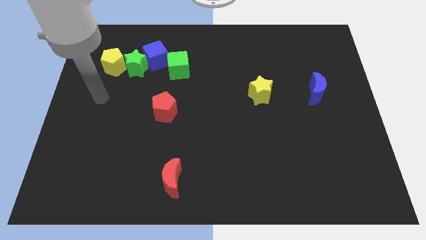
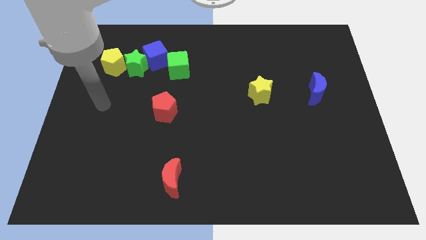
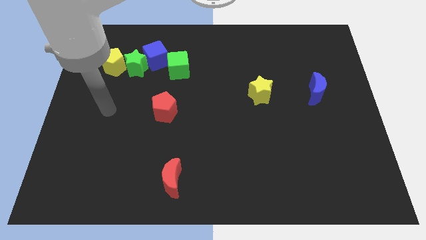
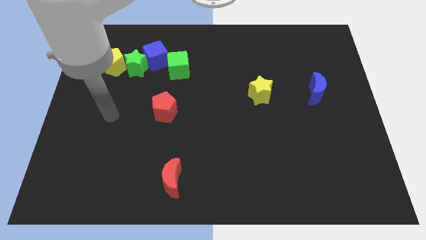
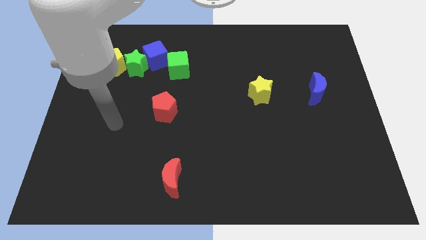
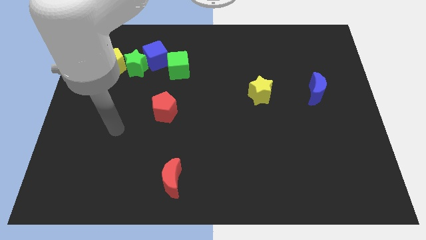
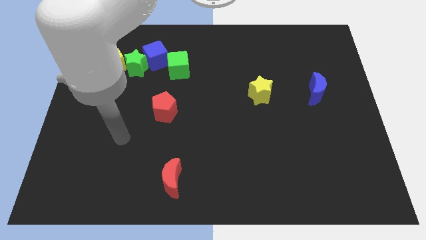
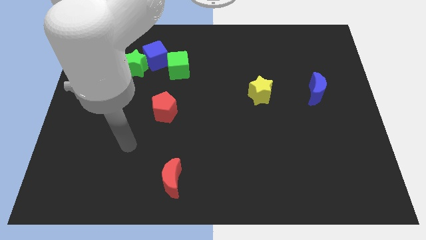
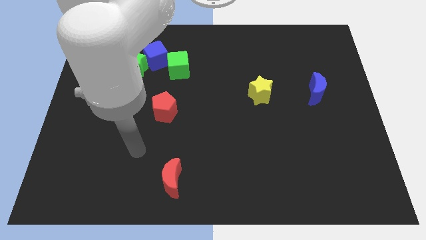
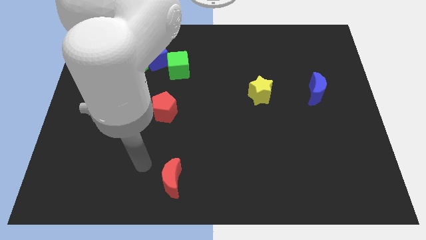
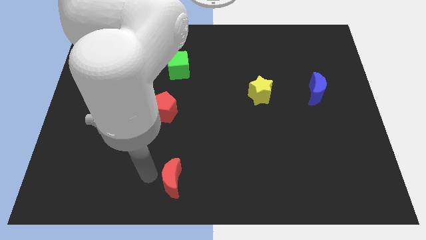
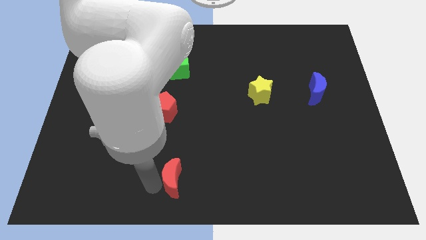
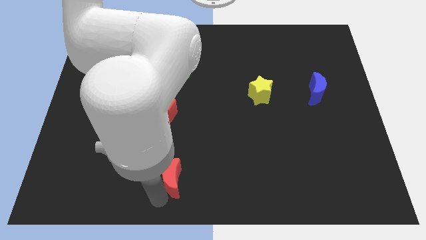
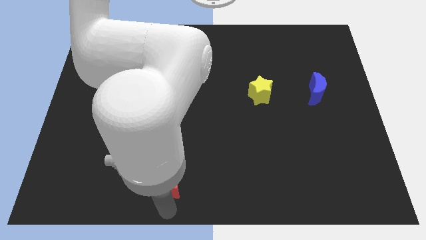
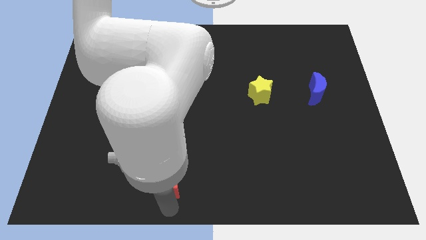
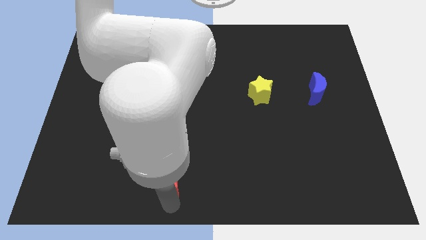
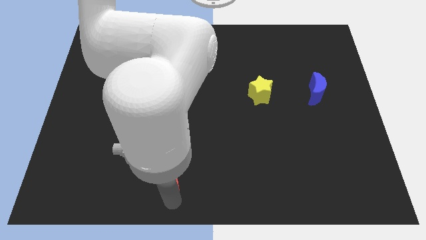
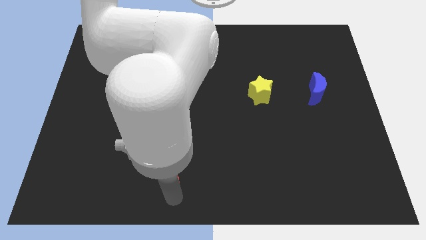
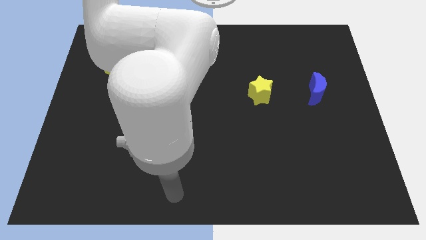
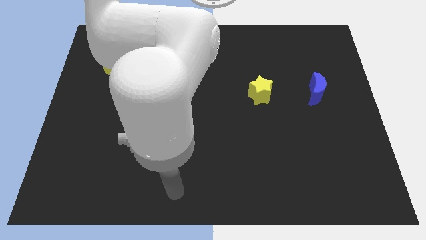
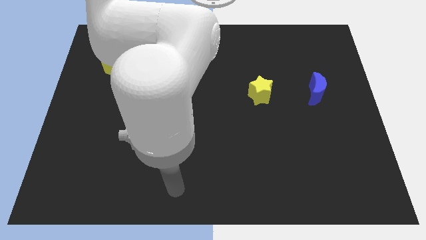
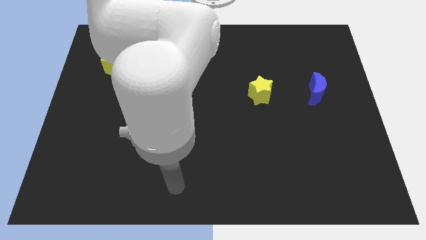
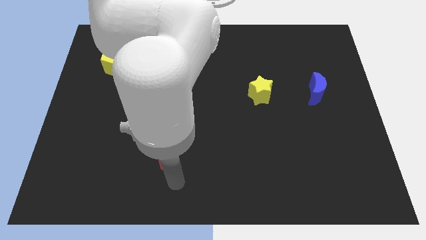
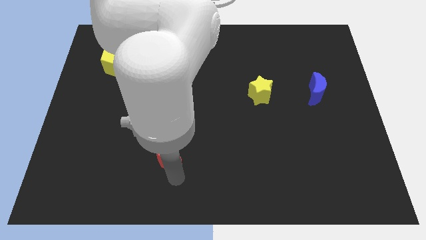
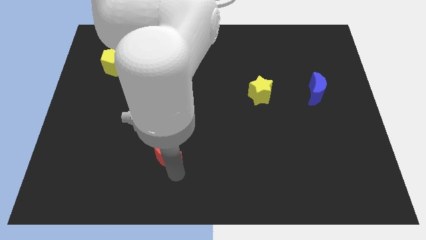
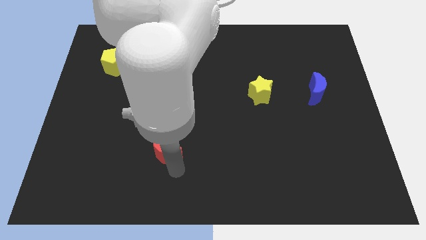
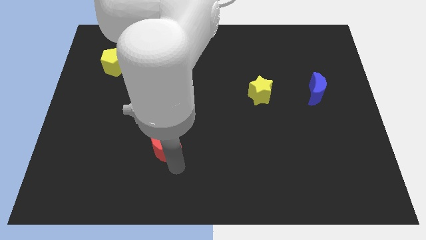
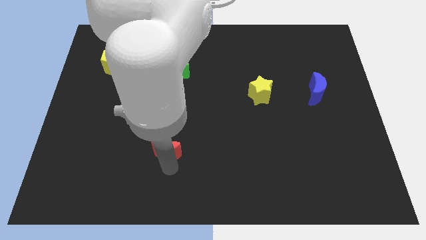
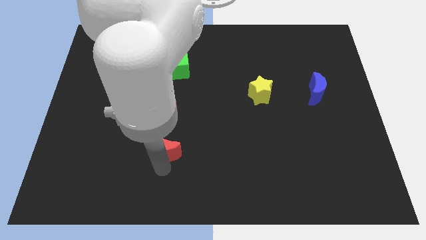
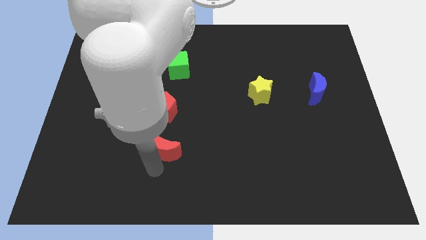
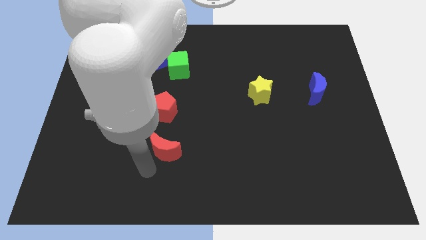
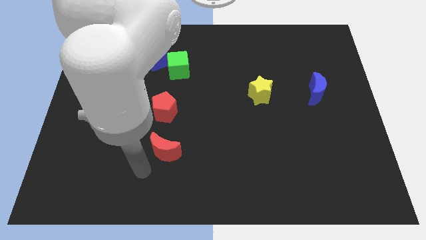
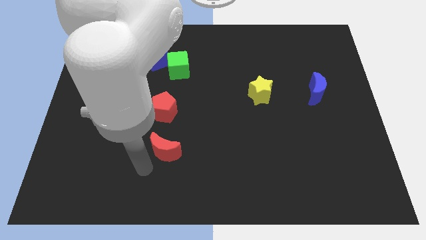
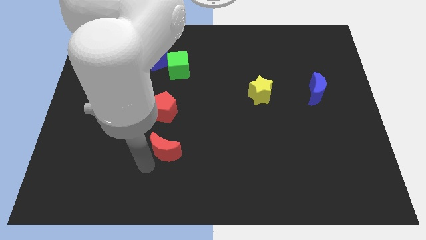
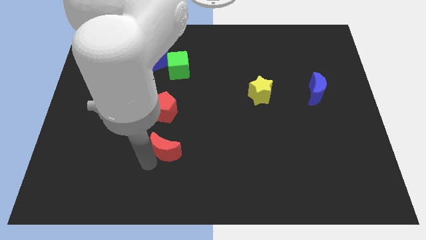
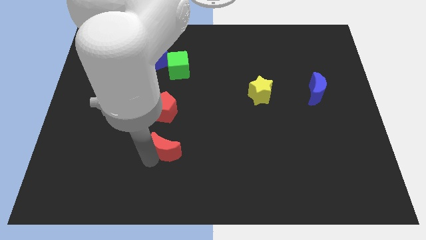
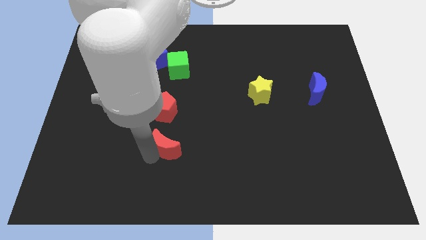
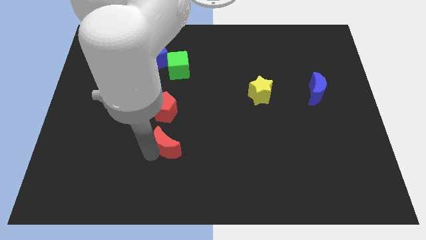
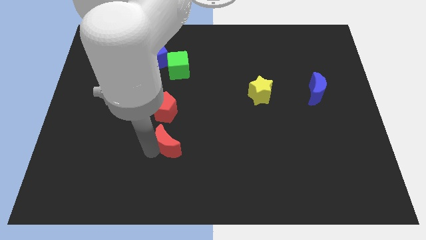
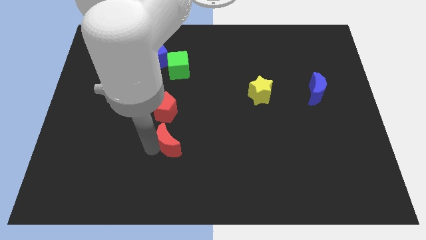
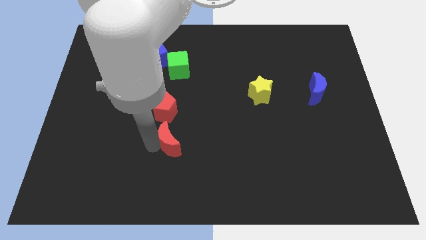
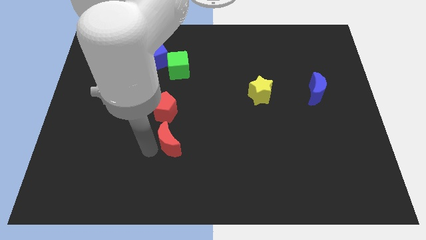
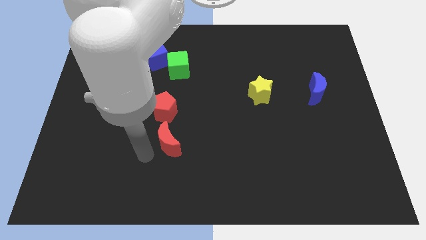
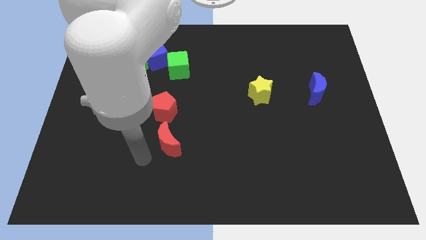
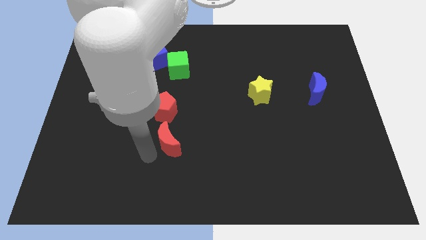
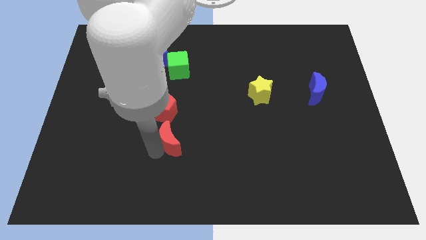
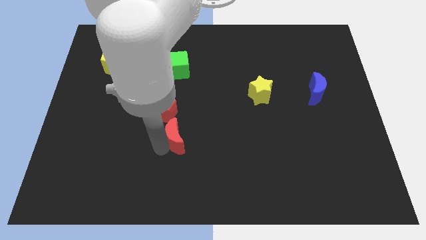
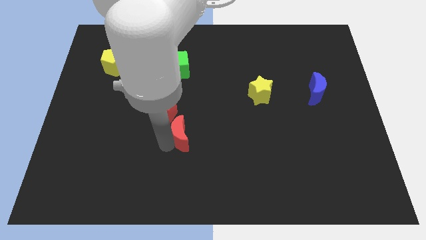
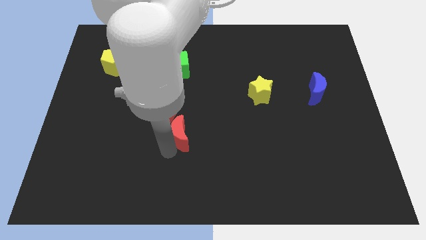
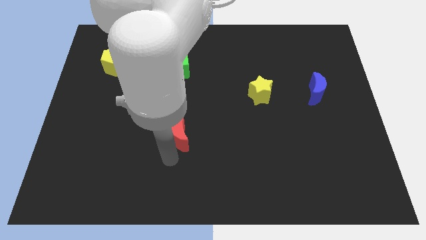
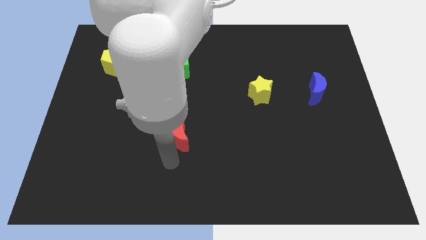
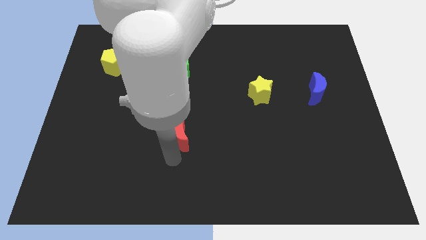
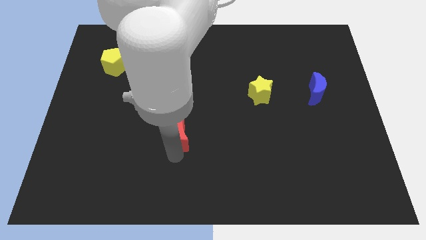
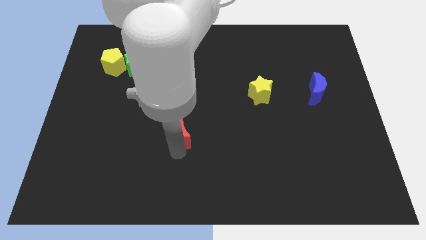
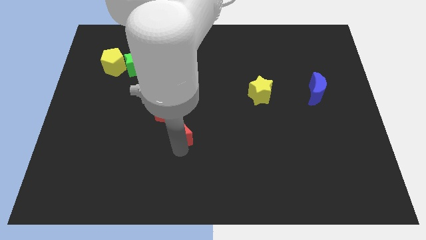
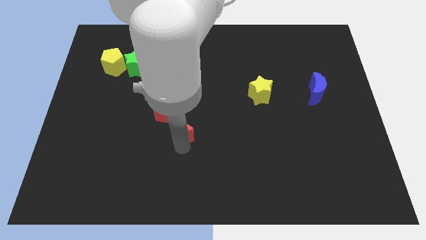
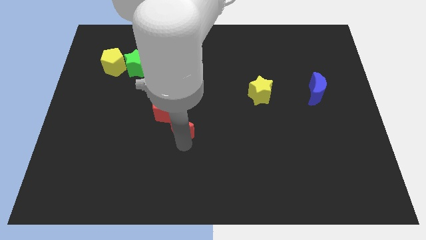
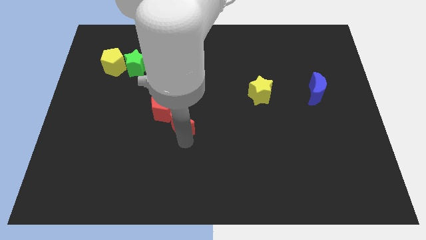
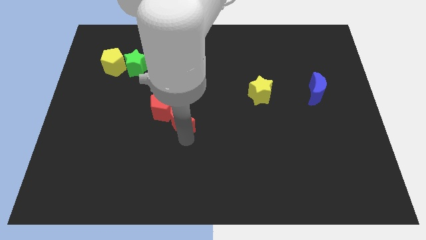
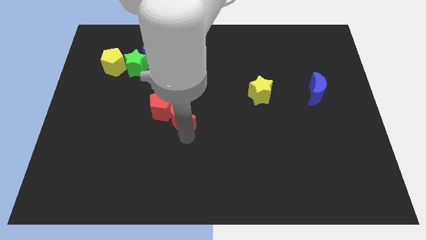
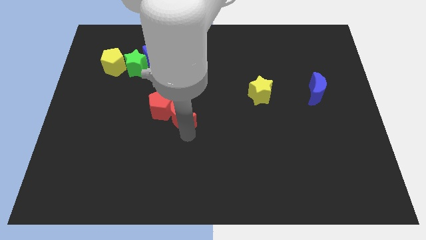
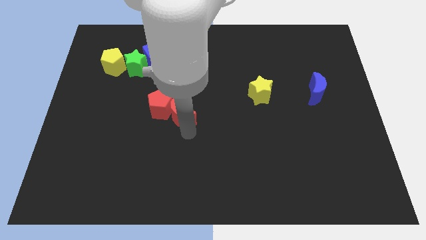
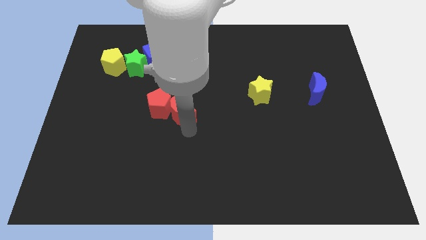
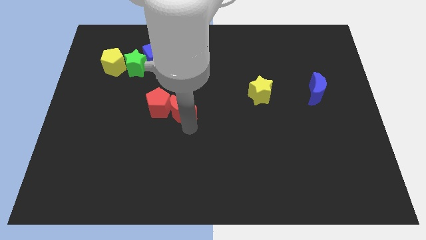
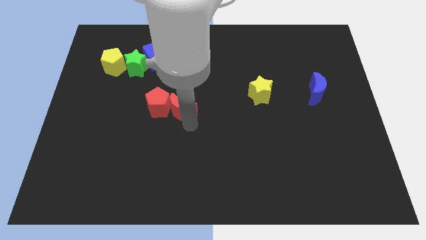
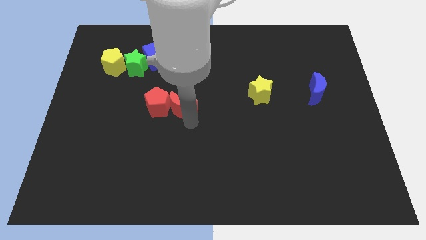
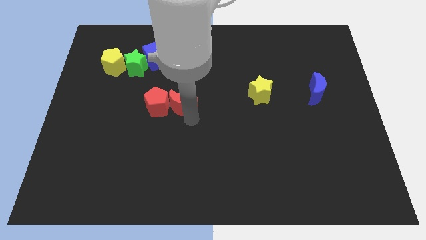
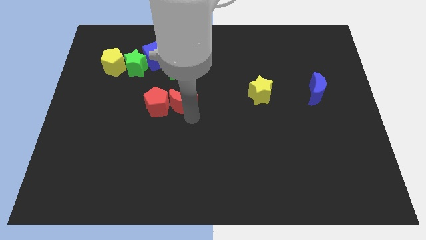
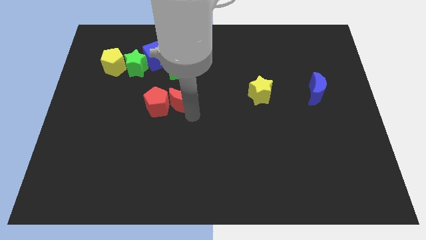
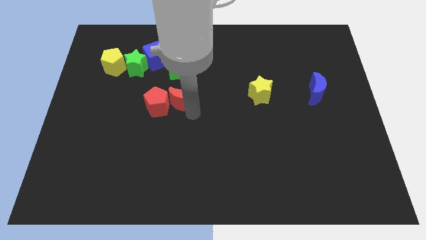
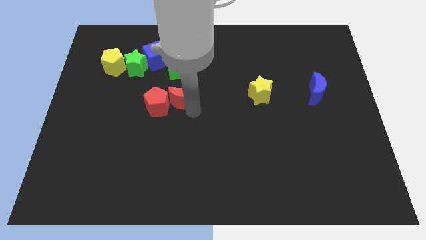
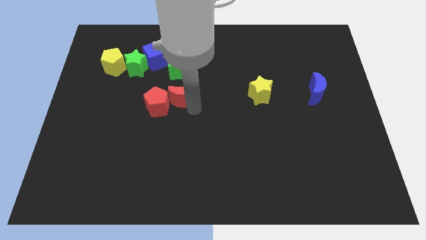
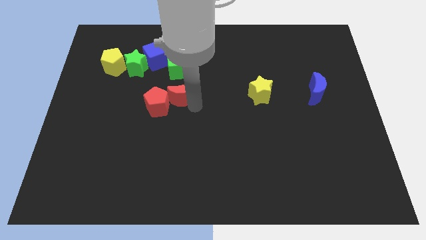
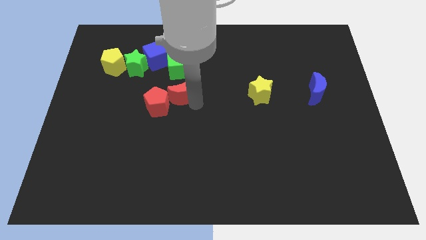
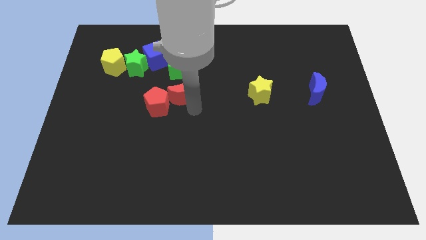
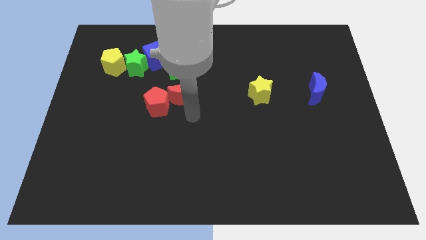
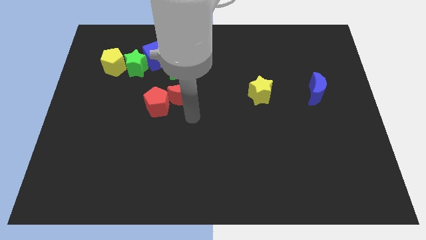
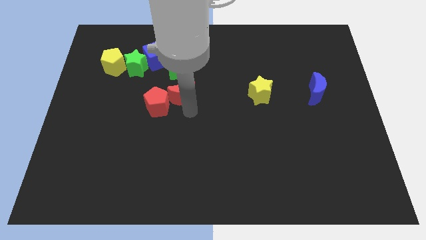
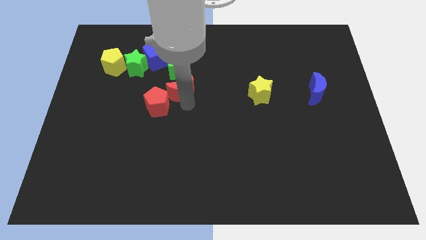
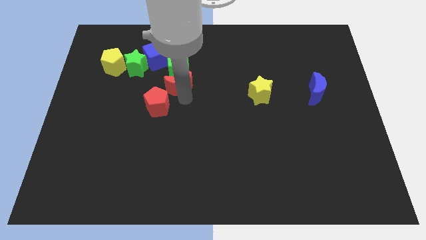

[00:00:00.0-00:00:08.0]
push the red moon to the bottom right of the blue cube
